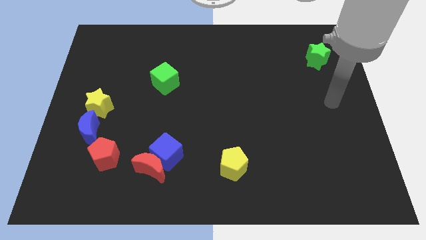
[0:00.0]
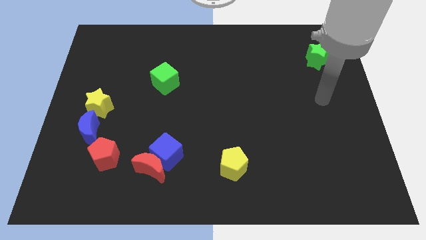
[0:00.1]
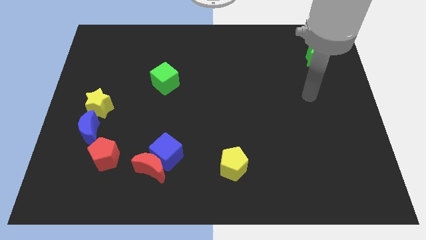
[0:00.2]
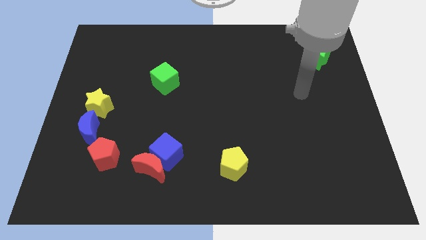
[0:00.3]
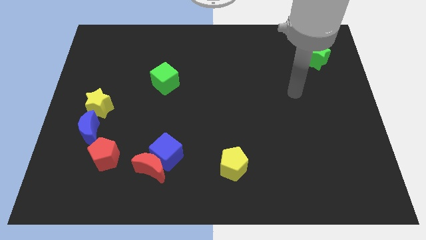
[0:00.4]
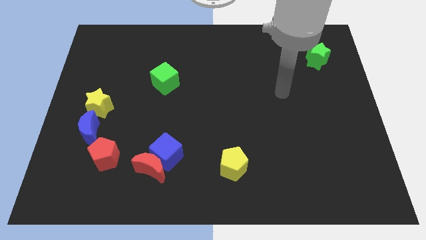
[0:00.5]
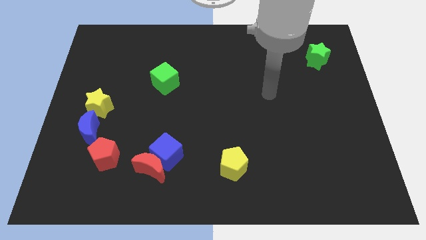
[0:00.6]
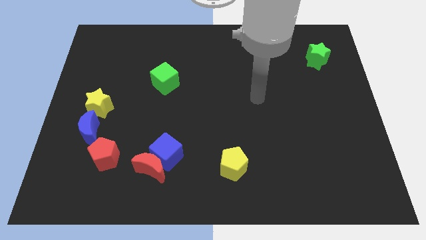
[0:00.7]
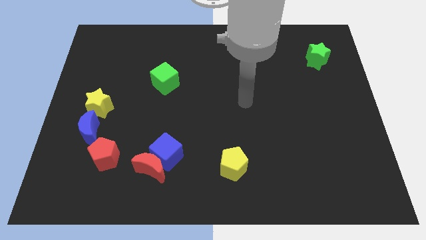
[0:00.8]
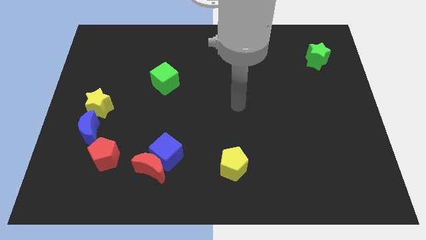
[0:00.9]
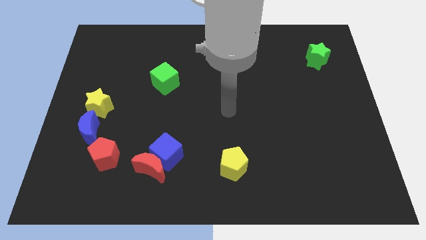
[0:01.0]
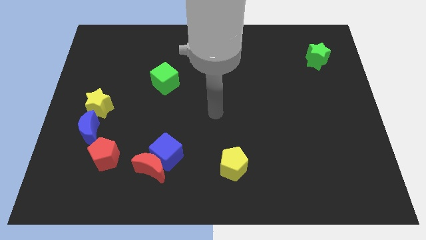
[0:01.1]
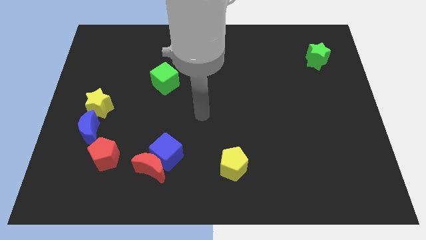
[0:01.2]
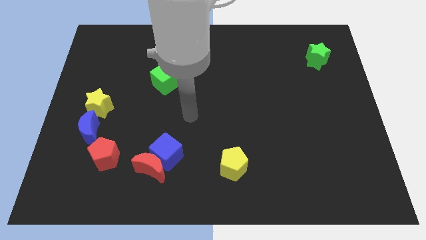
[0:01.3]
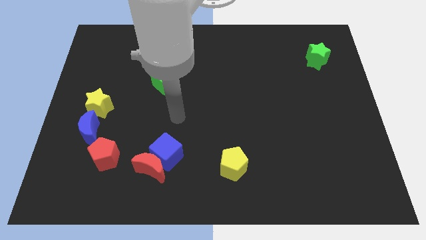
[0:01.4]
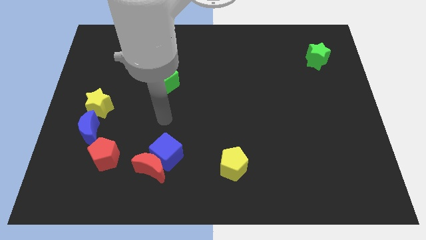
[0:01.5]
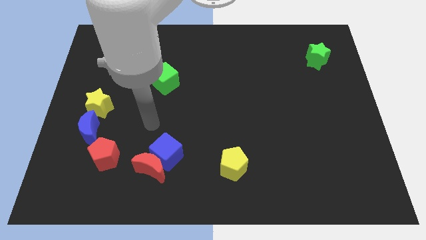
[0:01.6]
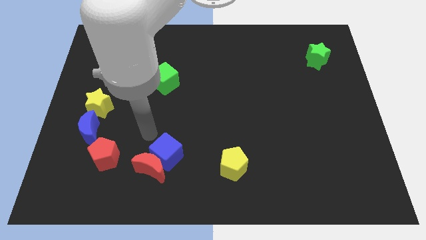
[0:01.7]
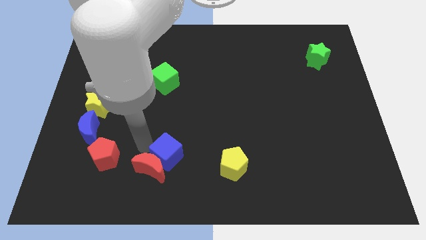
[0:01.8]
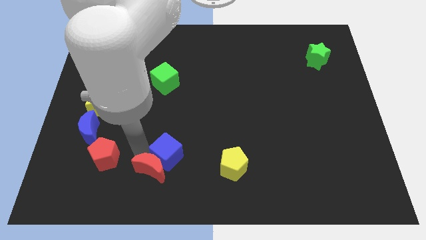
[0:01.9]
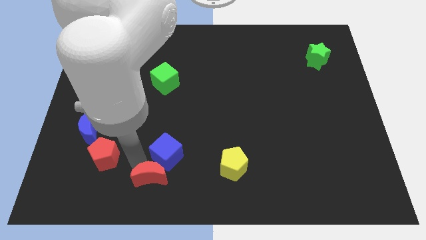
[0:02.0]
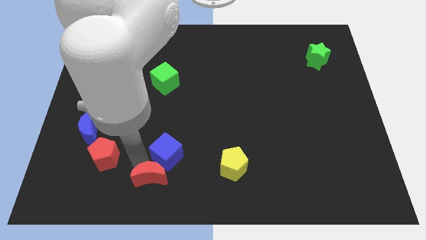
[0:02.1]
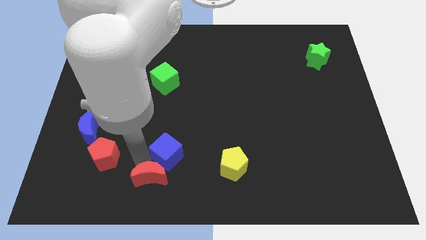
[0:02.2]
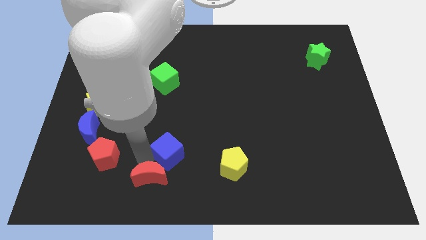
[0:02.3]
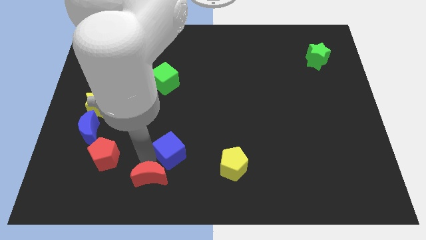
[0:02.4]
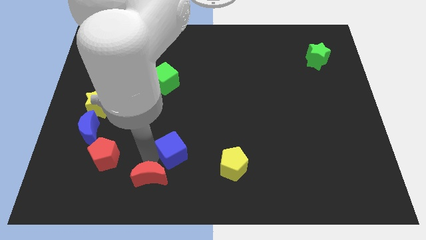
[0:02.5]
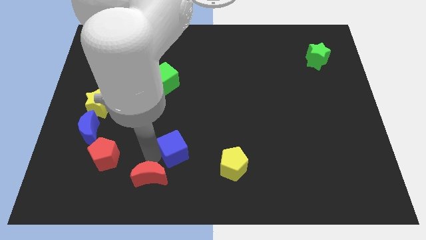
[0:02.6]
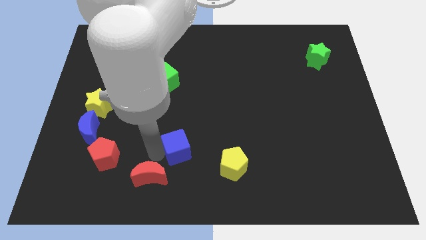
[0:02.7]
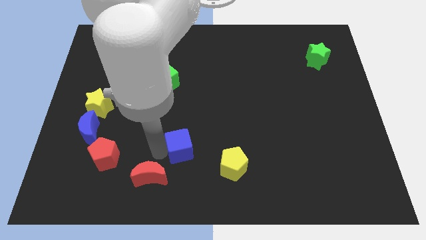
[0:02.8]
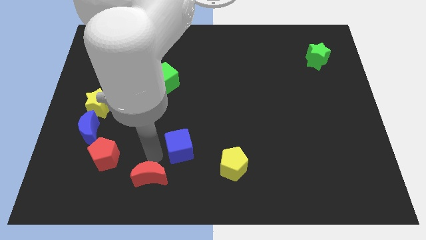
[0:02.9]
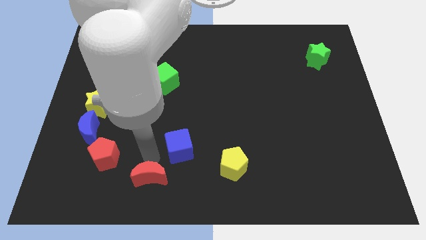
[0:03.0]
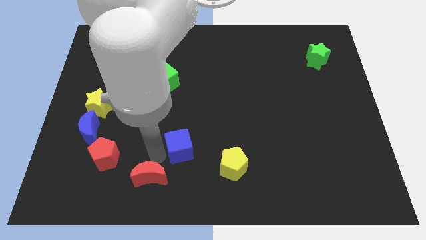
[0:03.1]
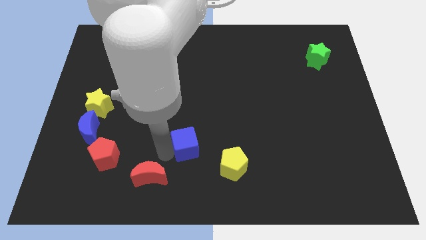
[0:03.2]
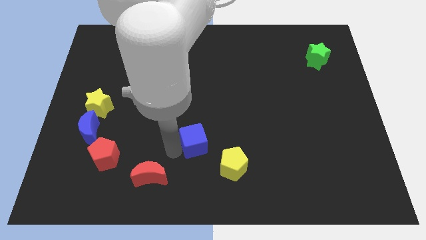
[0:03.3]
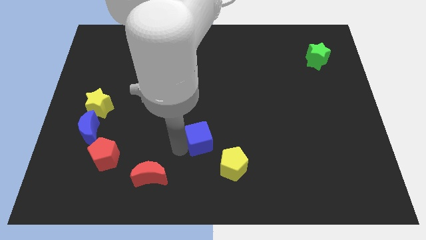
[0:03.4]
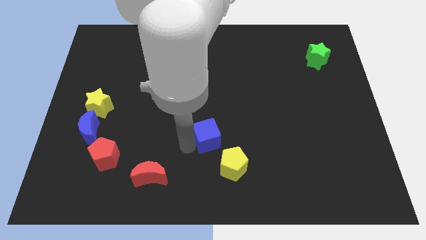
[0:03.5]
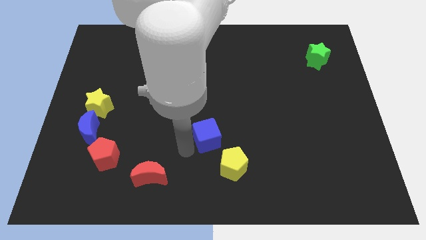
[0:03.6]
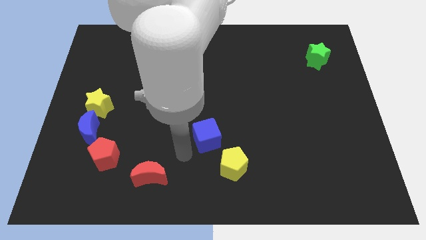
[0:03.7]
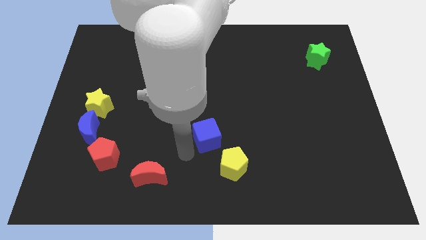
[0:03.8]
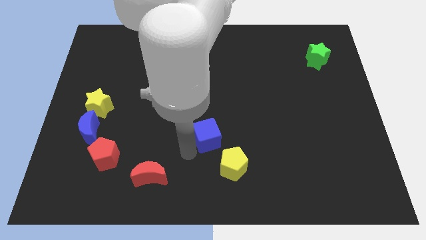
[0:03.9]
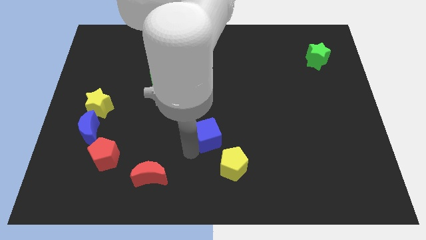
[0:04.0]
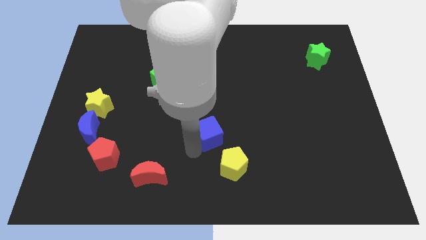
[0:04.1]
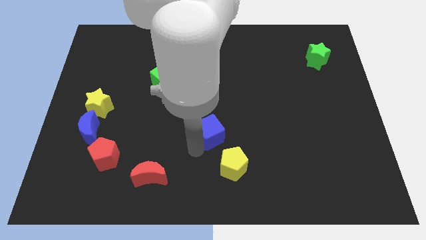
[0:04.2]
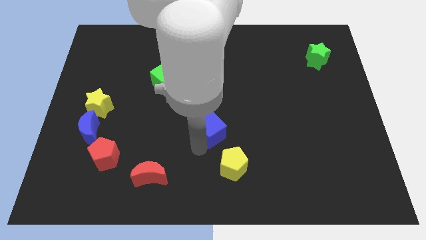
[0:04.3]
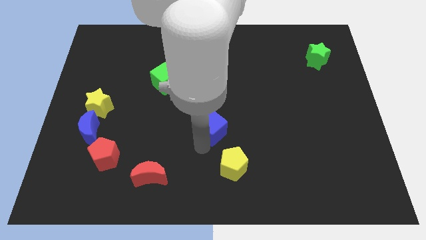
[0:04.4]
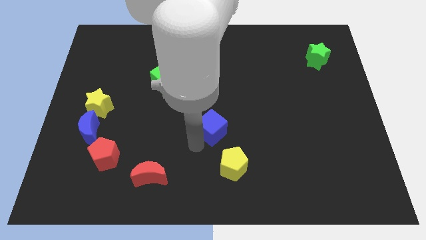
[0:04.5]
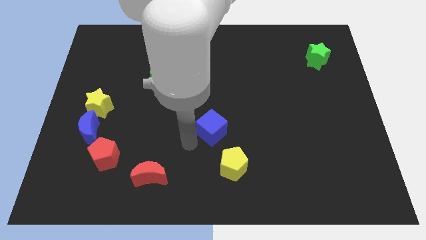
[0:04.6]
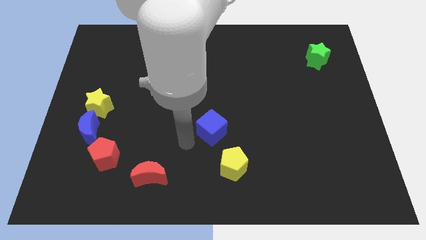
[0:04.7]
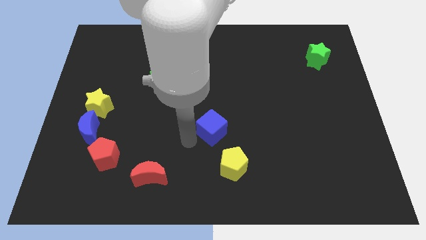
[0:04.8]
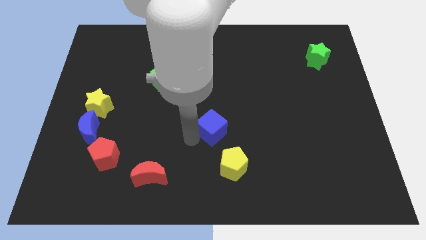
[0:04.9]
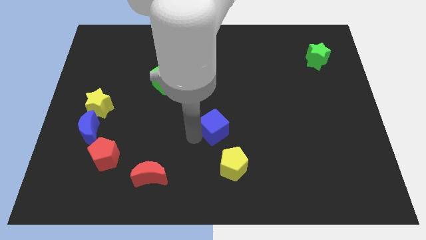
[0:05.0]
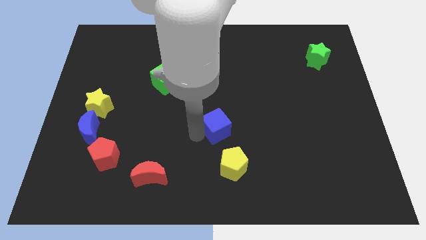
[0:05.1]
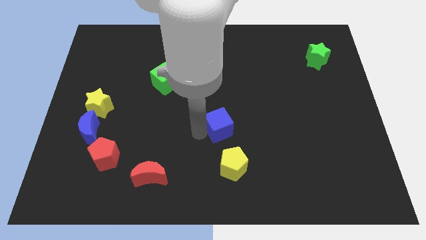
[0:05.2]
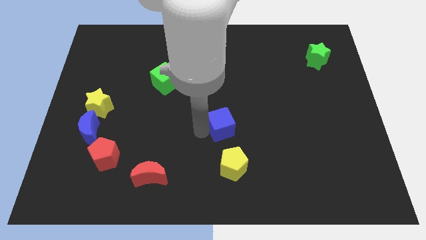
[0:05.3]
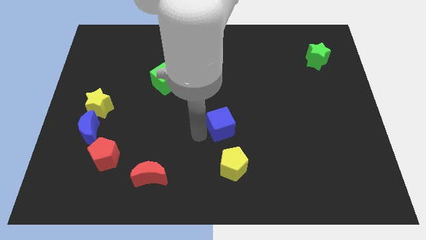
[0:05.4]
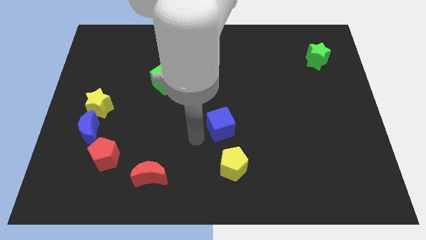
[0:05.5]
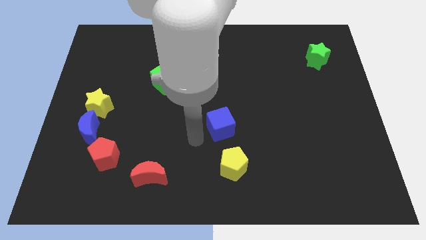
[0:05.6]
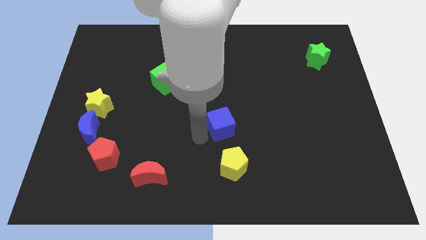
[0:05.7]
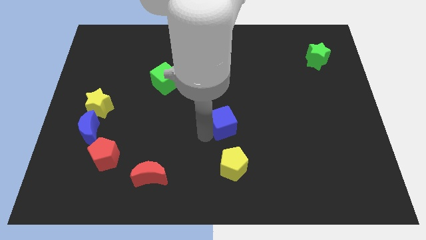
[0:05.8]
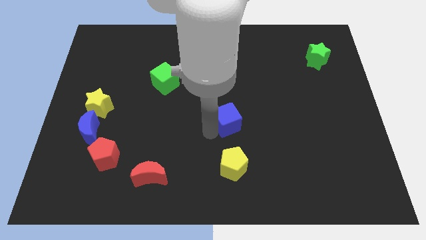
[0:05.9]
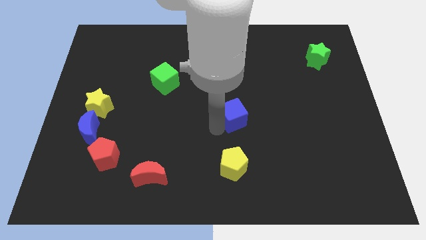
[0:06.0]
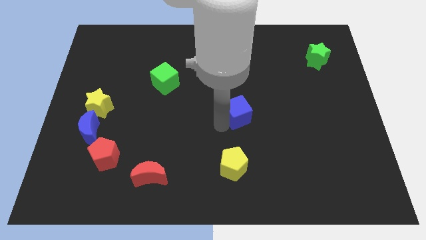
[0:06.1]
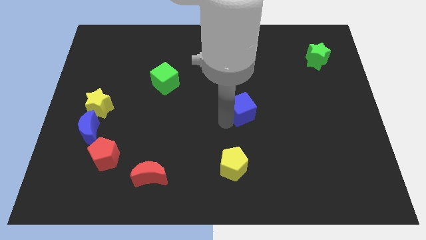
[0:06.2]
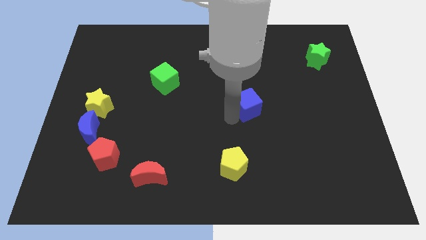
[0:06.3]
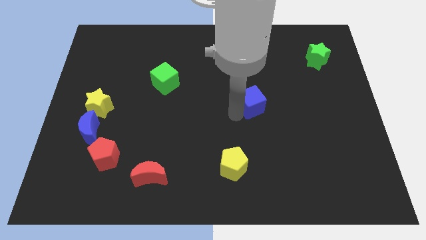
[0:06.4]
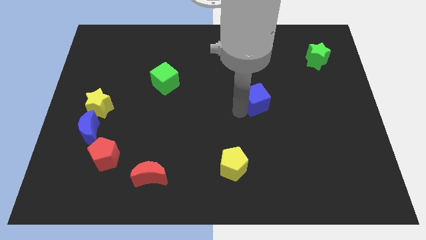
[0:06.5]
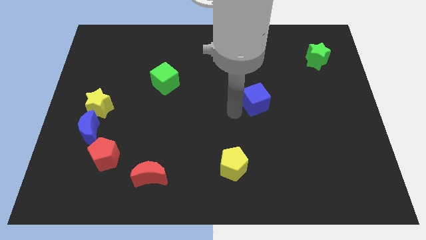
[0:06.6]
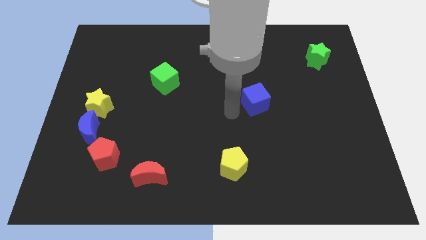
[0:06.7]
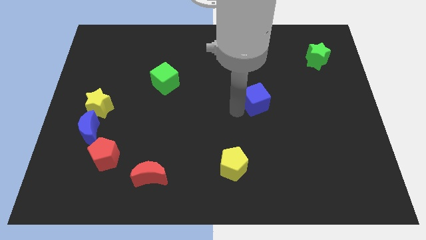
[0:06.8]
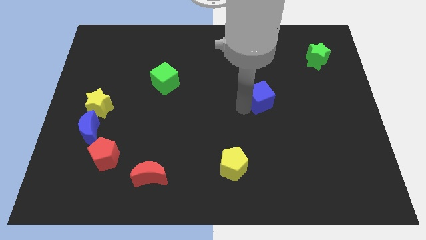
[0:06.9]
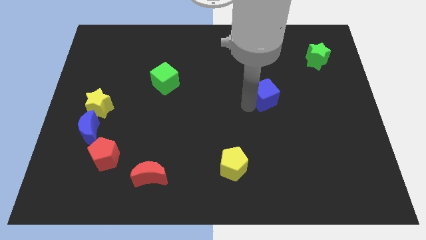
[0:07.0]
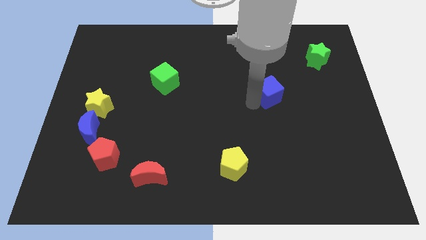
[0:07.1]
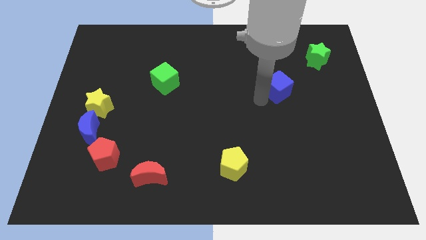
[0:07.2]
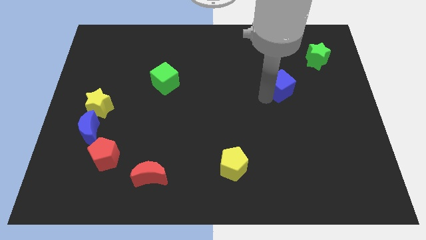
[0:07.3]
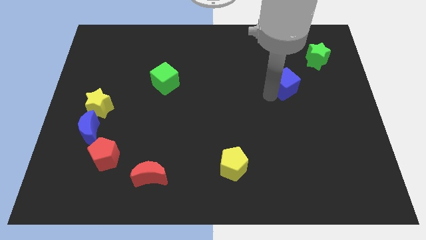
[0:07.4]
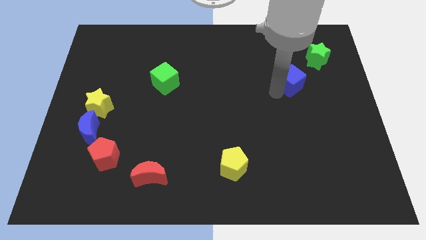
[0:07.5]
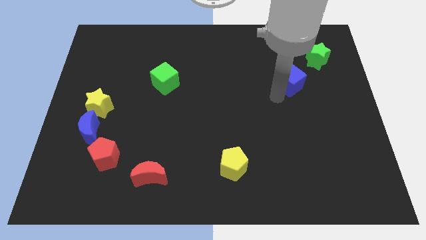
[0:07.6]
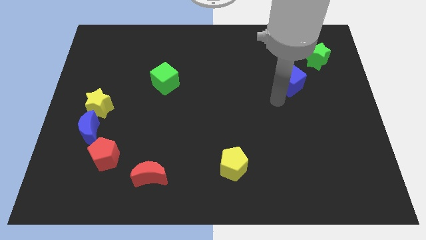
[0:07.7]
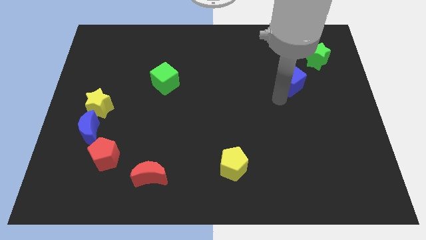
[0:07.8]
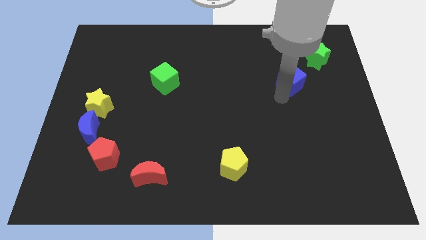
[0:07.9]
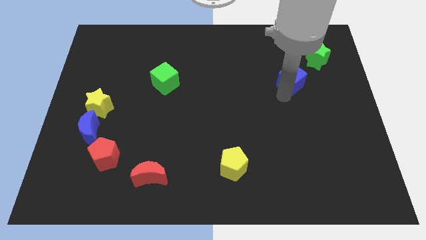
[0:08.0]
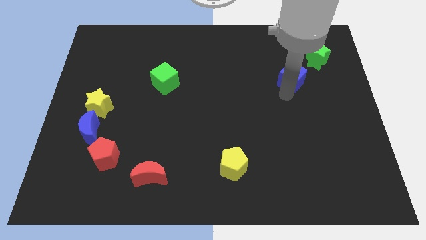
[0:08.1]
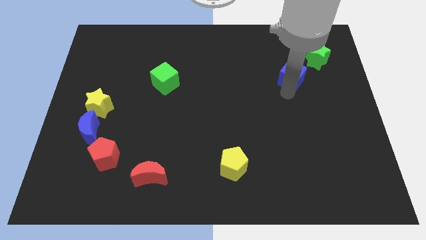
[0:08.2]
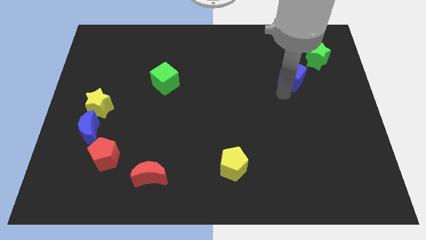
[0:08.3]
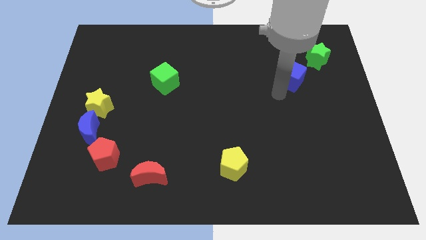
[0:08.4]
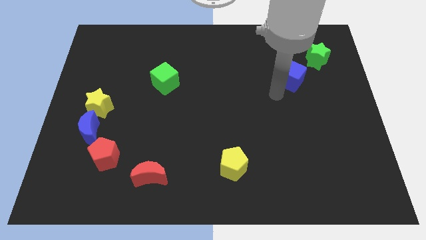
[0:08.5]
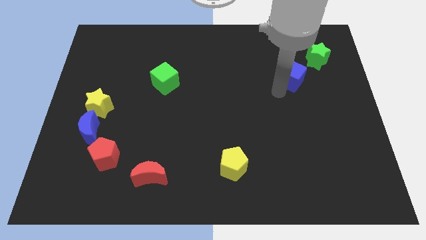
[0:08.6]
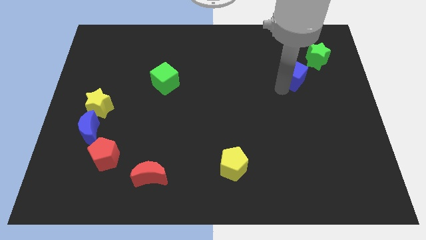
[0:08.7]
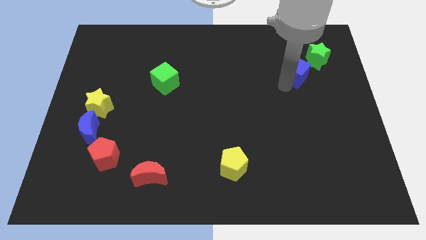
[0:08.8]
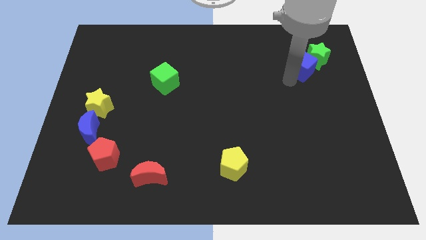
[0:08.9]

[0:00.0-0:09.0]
move the blue cube next to the green star
